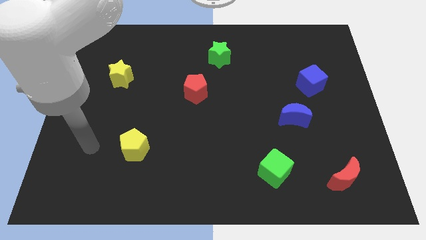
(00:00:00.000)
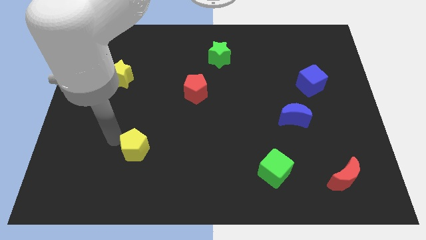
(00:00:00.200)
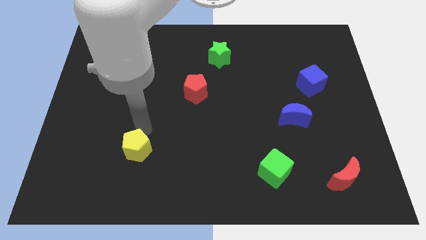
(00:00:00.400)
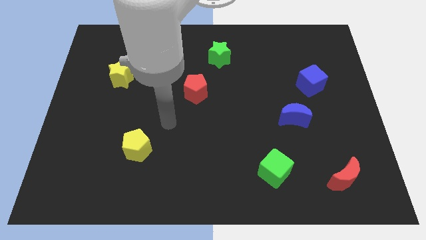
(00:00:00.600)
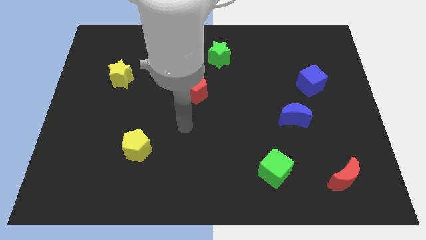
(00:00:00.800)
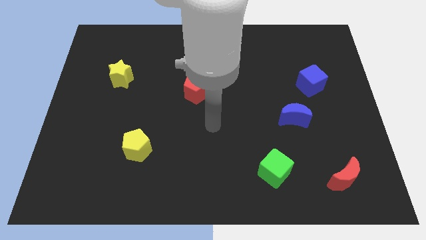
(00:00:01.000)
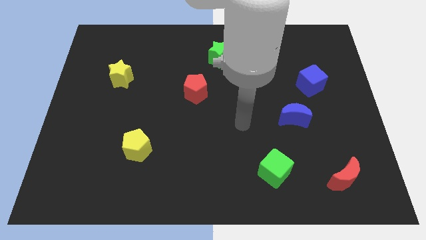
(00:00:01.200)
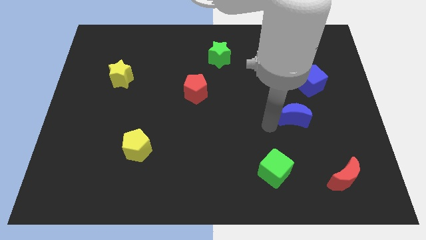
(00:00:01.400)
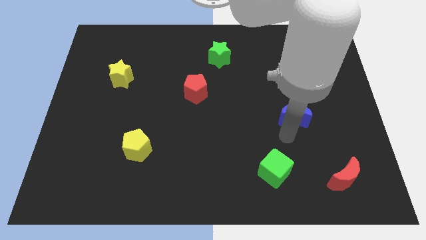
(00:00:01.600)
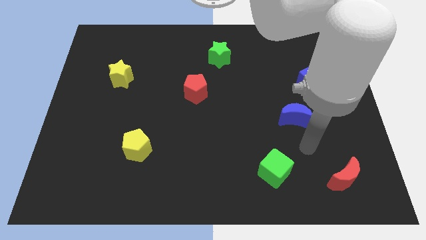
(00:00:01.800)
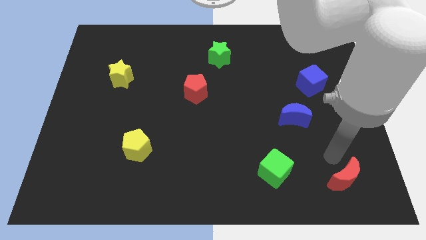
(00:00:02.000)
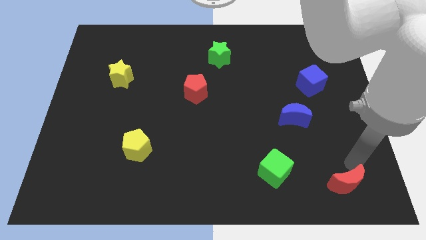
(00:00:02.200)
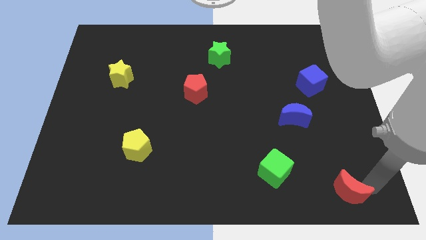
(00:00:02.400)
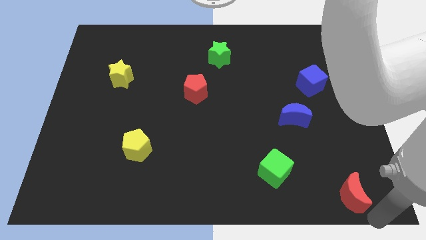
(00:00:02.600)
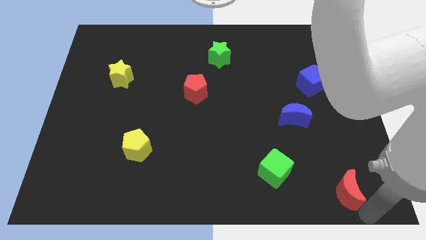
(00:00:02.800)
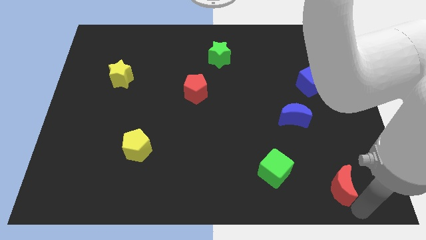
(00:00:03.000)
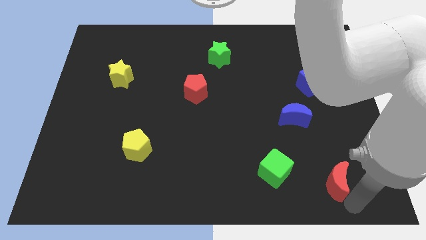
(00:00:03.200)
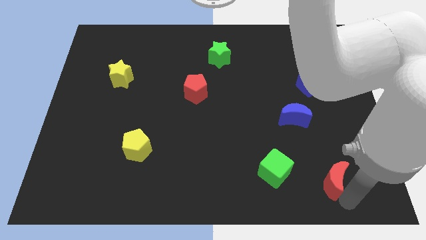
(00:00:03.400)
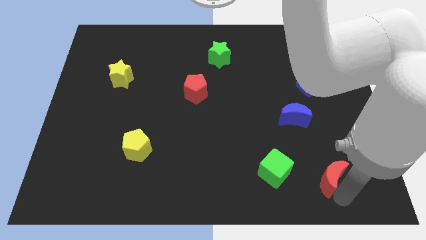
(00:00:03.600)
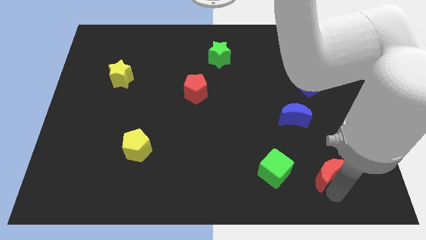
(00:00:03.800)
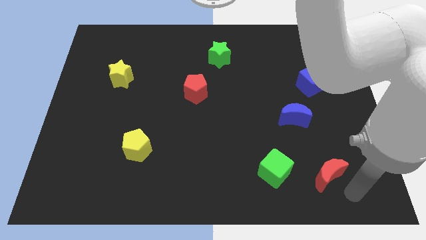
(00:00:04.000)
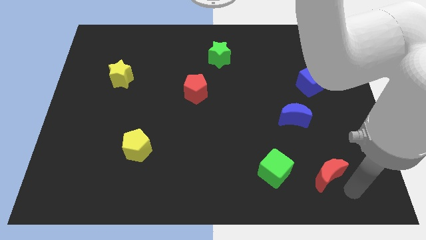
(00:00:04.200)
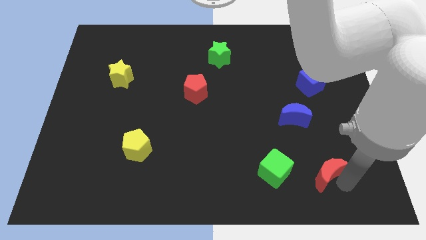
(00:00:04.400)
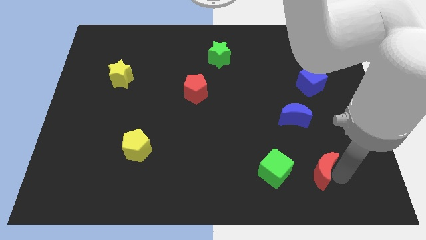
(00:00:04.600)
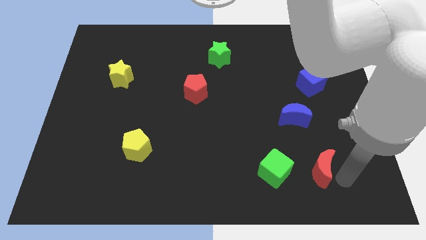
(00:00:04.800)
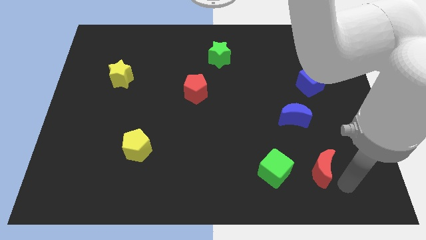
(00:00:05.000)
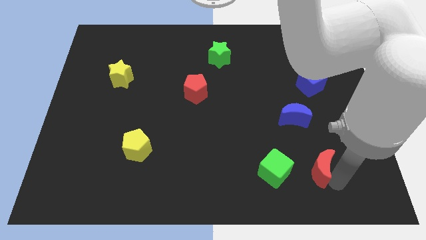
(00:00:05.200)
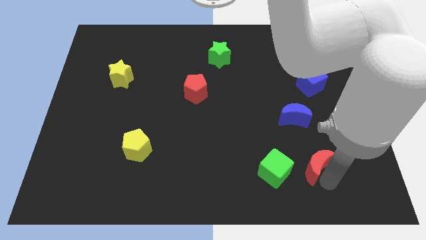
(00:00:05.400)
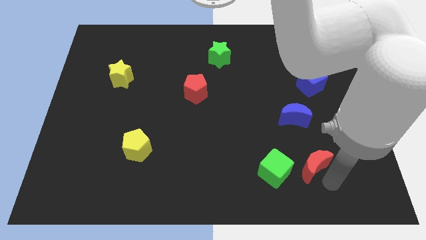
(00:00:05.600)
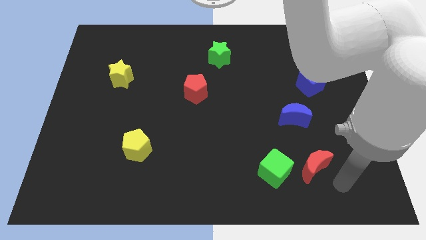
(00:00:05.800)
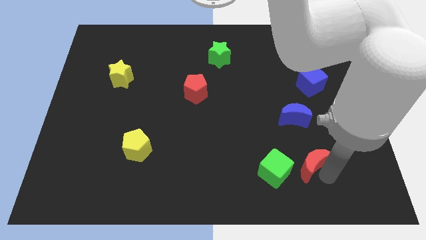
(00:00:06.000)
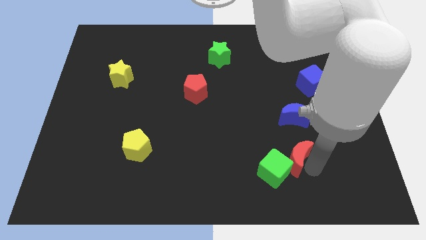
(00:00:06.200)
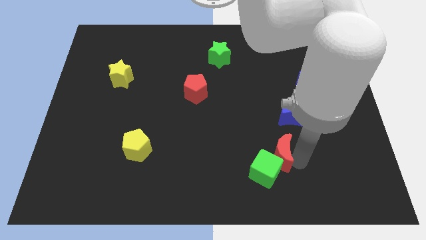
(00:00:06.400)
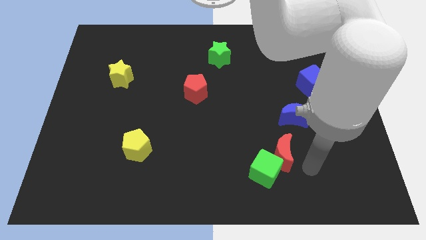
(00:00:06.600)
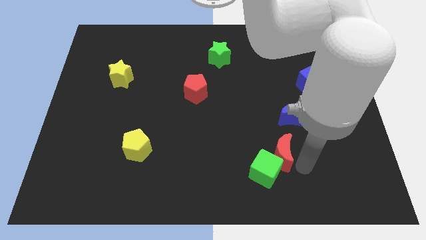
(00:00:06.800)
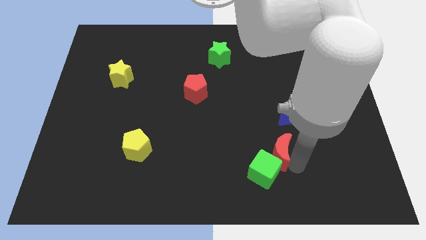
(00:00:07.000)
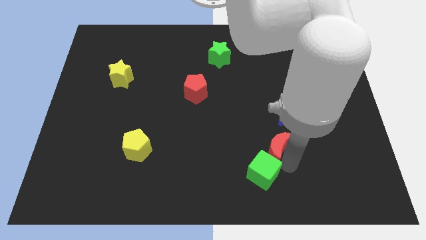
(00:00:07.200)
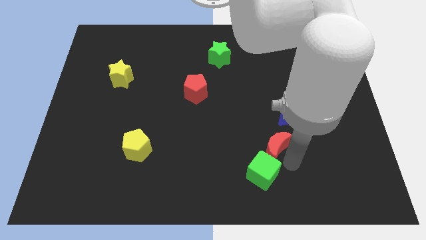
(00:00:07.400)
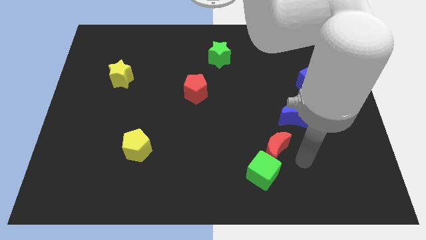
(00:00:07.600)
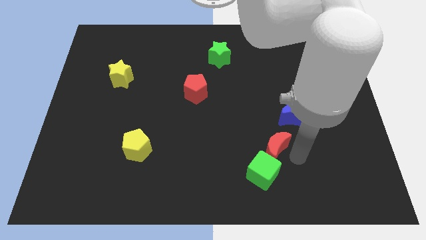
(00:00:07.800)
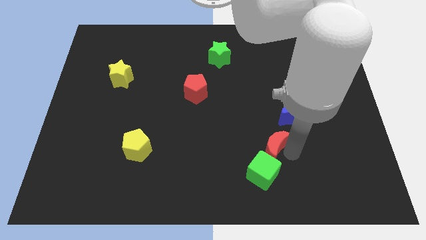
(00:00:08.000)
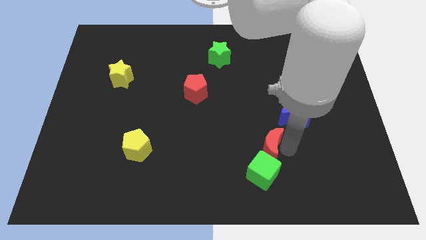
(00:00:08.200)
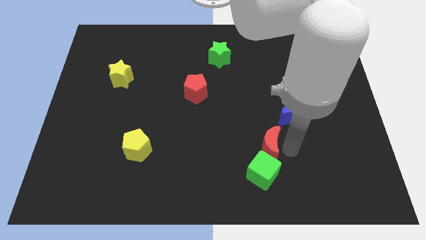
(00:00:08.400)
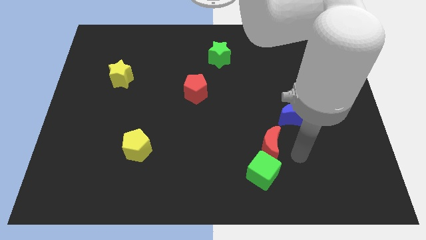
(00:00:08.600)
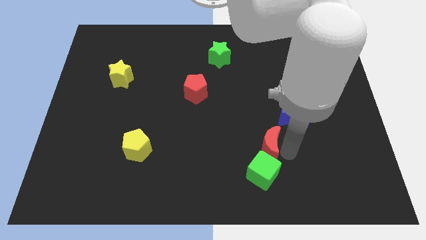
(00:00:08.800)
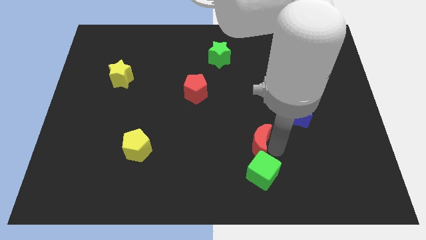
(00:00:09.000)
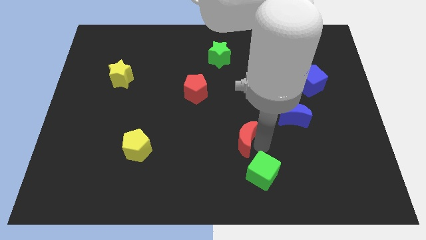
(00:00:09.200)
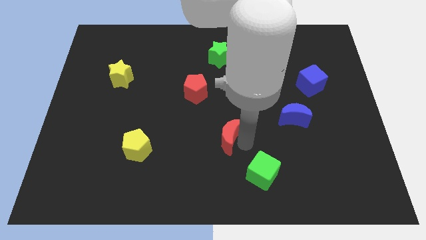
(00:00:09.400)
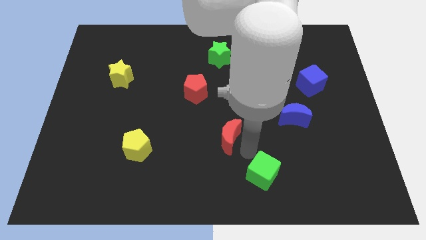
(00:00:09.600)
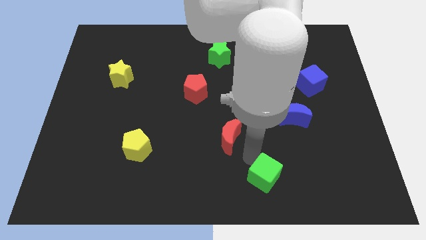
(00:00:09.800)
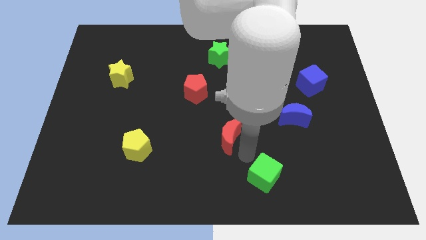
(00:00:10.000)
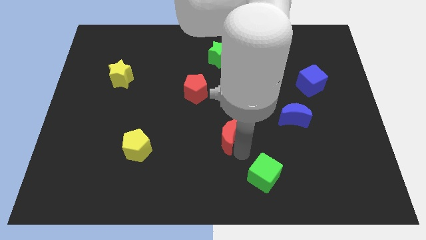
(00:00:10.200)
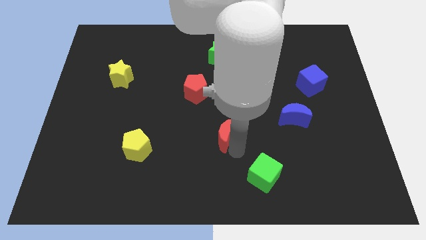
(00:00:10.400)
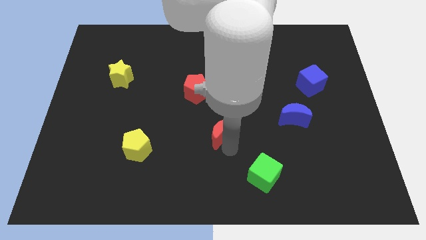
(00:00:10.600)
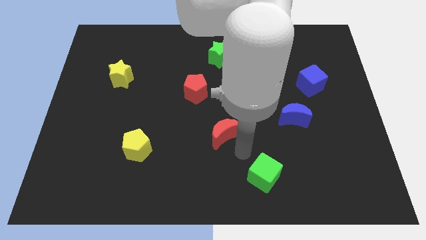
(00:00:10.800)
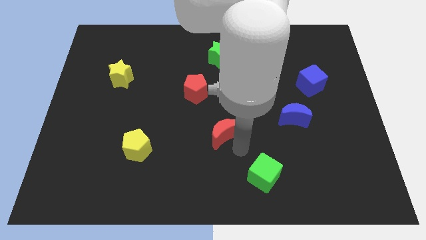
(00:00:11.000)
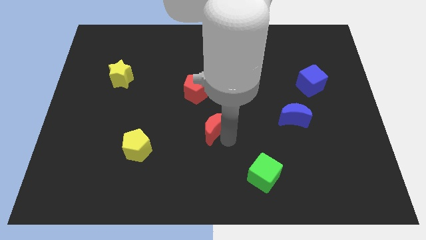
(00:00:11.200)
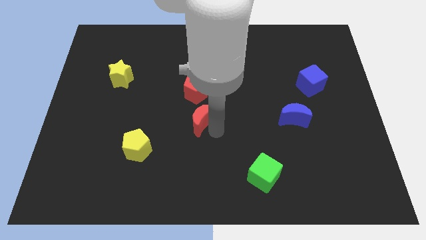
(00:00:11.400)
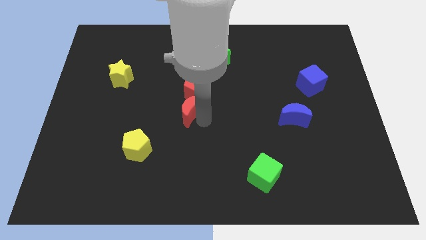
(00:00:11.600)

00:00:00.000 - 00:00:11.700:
push the red moon to the bottom left side of the red pentagon

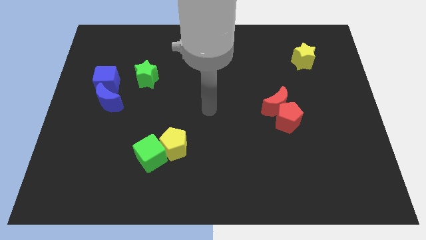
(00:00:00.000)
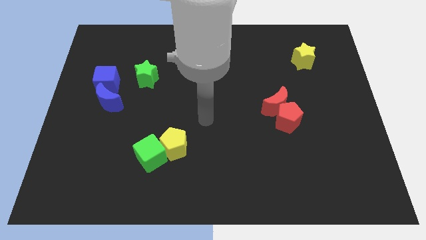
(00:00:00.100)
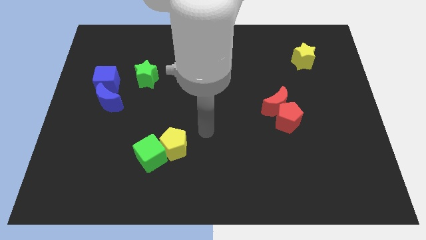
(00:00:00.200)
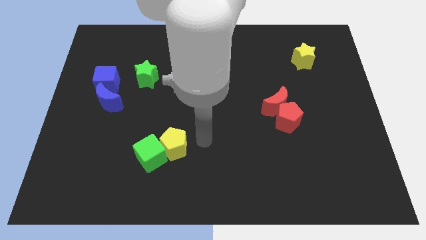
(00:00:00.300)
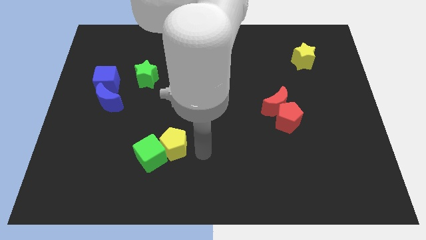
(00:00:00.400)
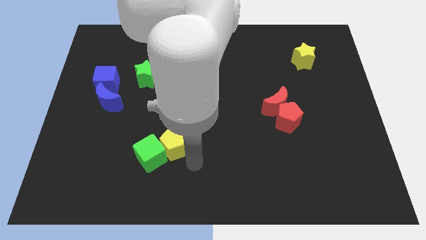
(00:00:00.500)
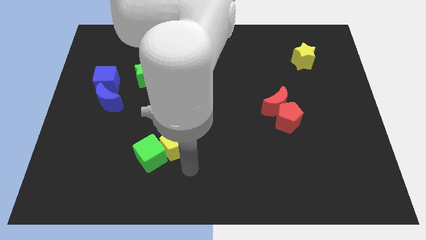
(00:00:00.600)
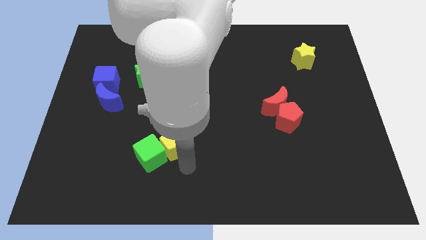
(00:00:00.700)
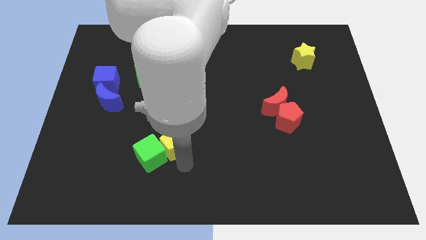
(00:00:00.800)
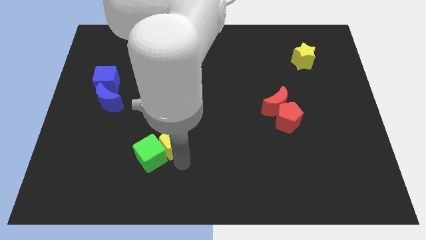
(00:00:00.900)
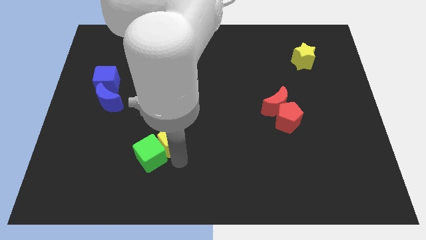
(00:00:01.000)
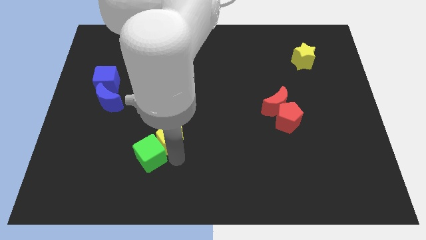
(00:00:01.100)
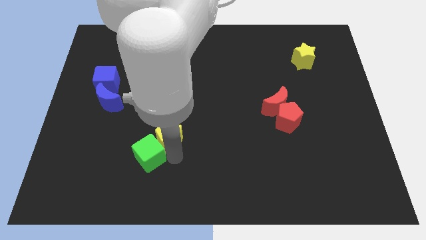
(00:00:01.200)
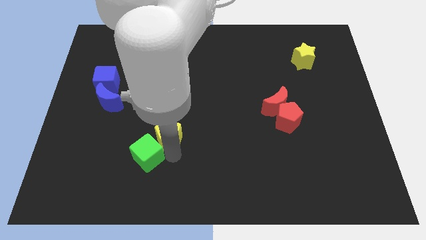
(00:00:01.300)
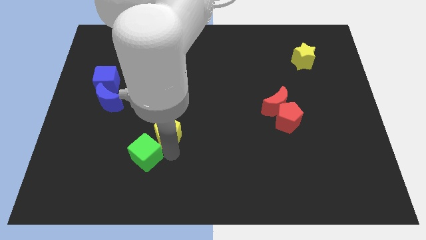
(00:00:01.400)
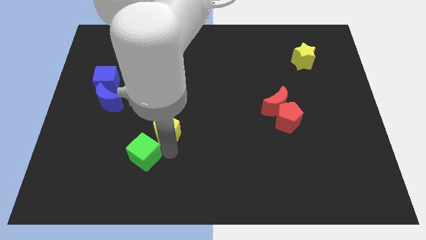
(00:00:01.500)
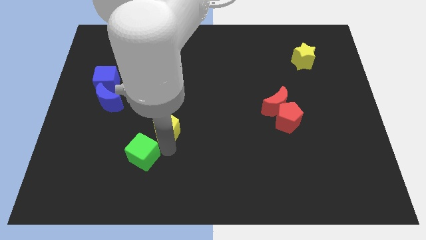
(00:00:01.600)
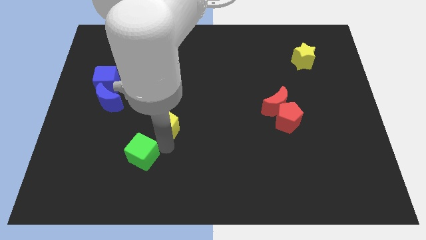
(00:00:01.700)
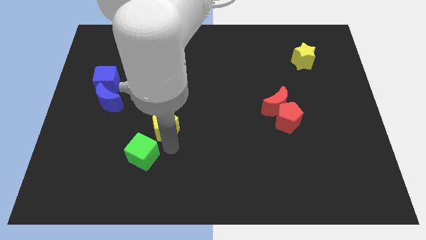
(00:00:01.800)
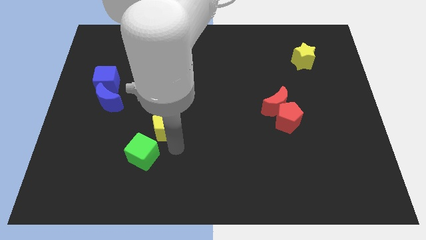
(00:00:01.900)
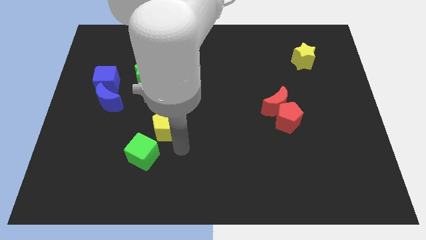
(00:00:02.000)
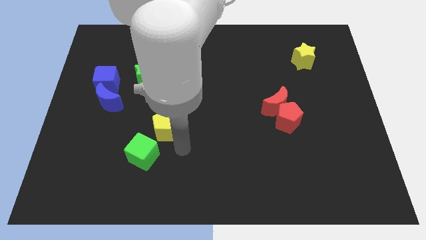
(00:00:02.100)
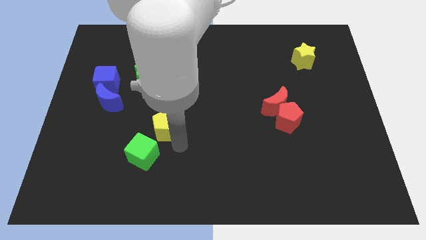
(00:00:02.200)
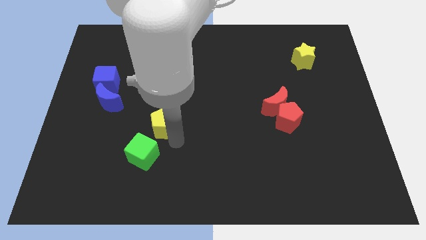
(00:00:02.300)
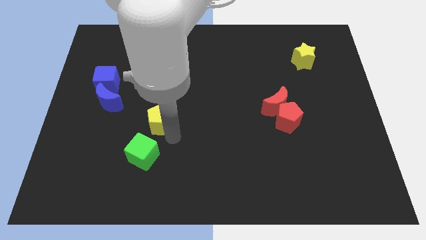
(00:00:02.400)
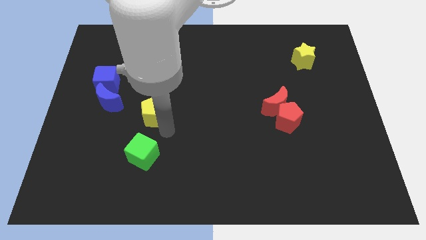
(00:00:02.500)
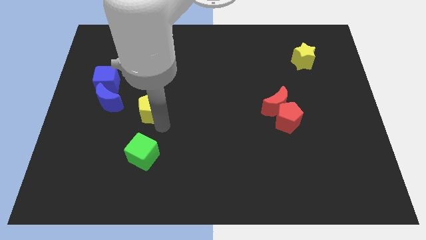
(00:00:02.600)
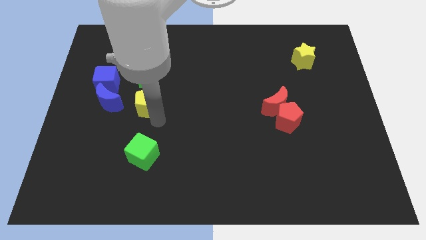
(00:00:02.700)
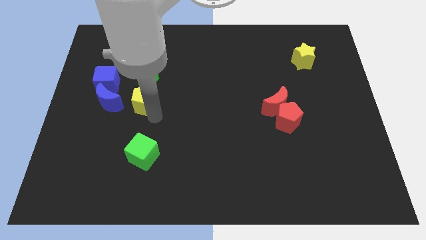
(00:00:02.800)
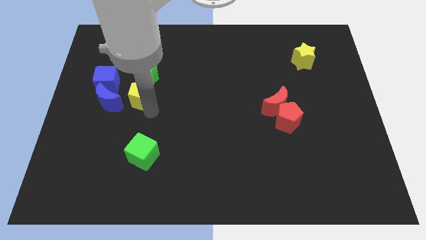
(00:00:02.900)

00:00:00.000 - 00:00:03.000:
put the yellow pentagon to the top right of the blue moon
